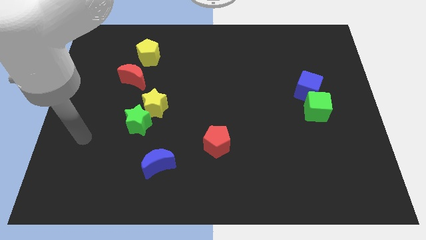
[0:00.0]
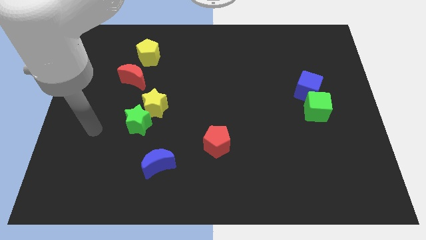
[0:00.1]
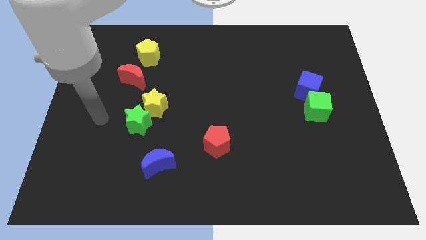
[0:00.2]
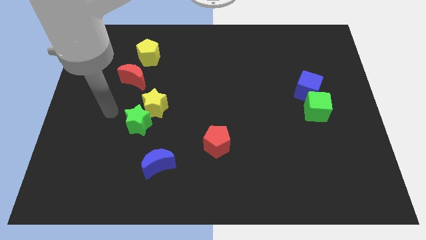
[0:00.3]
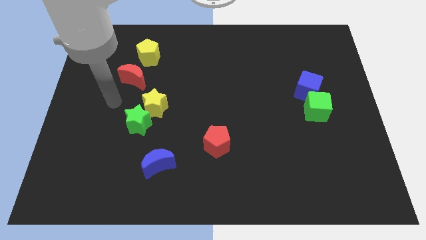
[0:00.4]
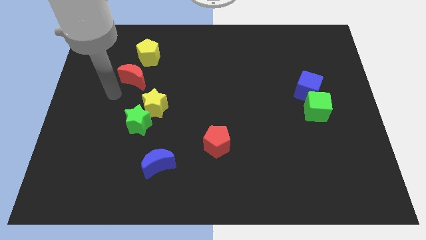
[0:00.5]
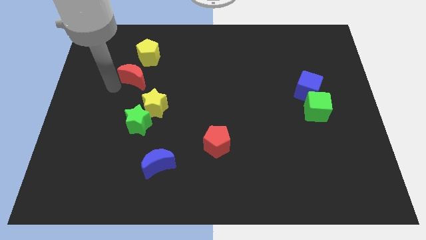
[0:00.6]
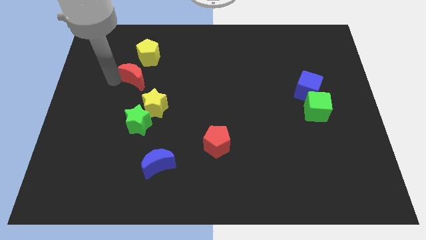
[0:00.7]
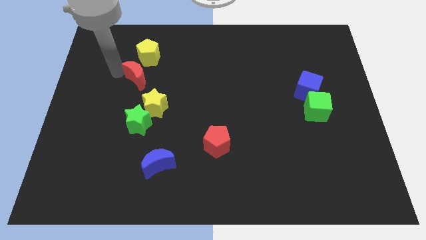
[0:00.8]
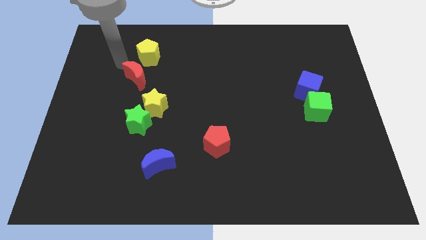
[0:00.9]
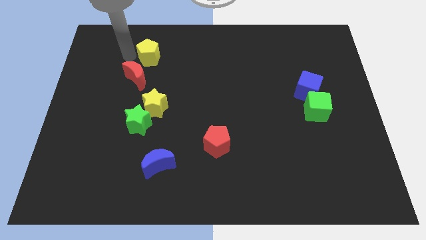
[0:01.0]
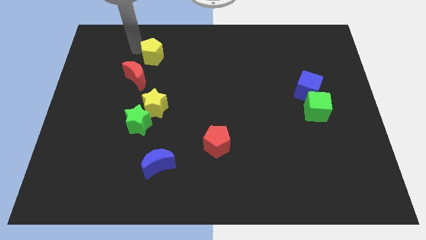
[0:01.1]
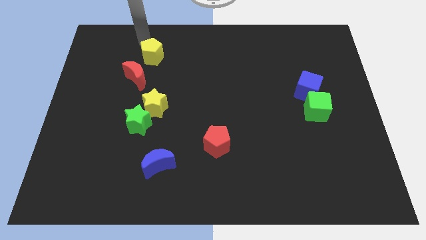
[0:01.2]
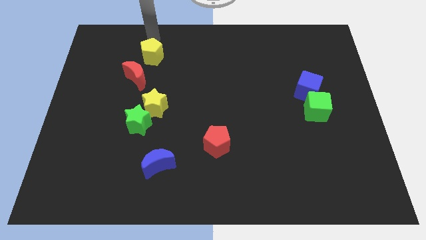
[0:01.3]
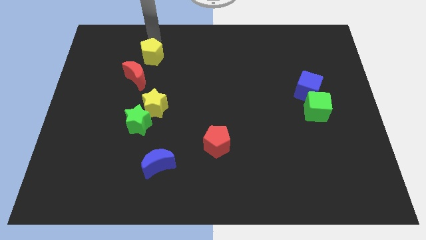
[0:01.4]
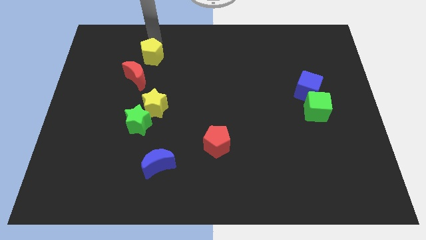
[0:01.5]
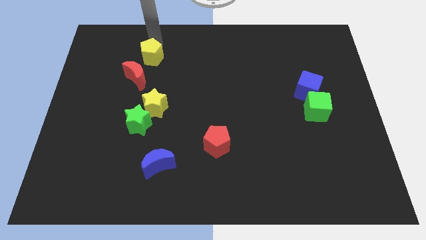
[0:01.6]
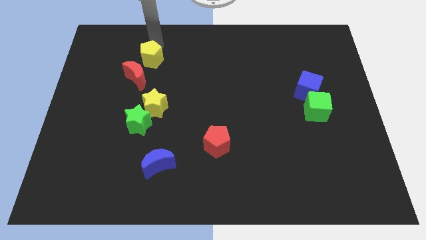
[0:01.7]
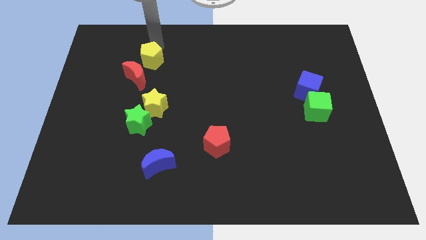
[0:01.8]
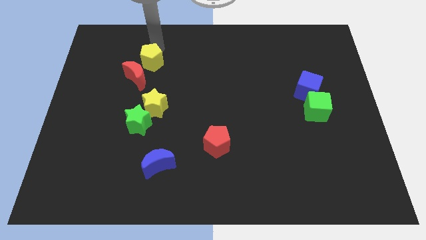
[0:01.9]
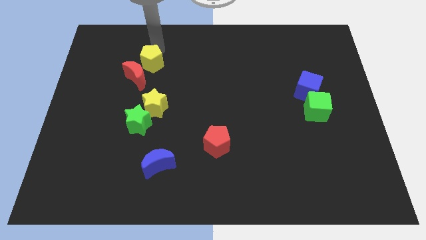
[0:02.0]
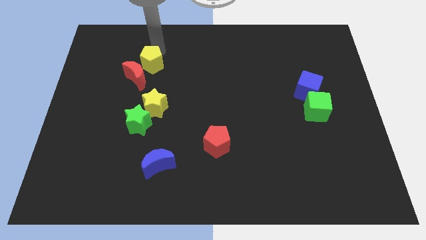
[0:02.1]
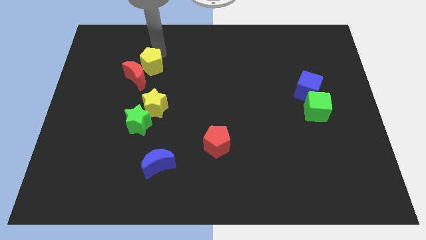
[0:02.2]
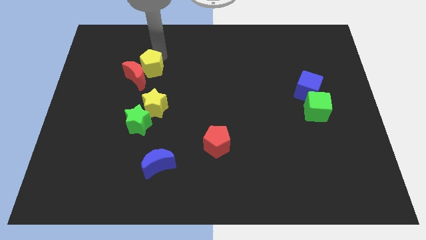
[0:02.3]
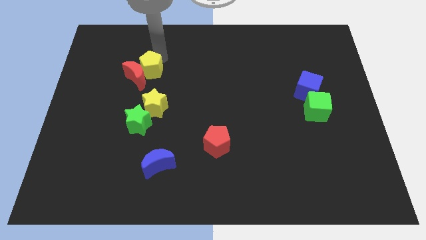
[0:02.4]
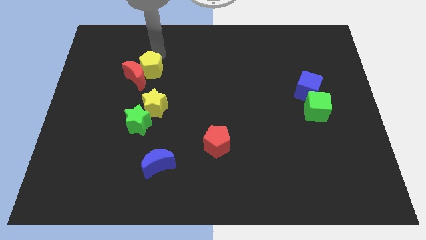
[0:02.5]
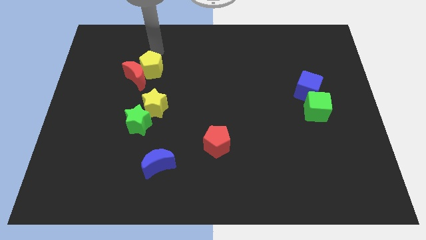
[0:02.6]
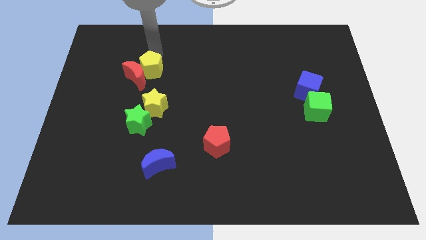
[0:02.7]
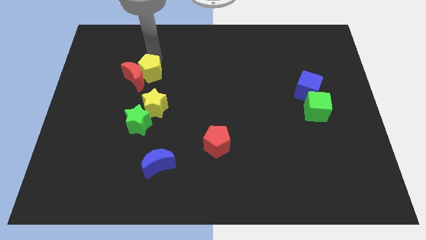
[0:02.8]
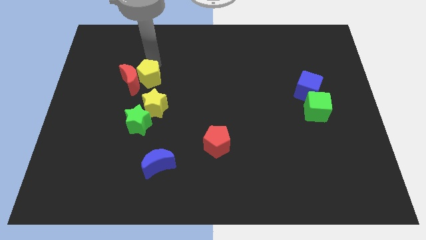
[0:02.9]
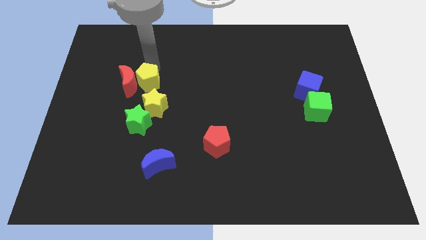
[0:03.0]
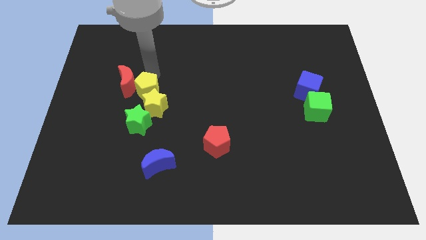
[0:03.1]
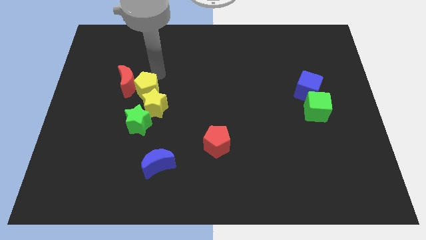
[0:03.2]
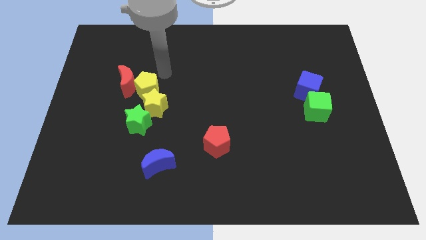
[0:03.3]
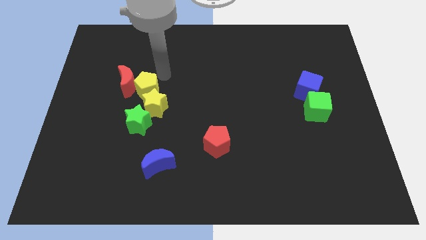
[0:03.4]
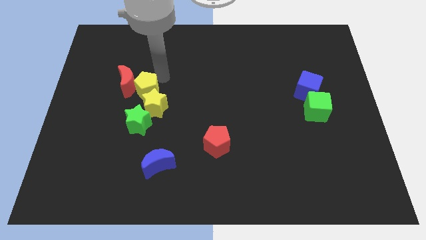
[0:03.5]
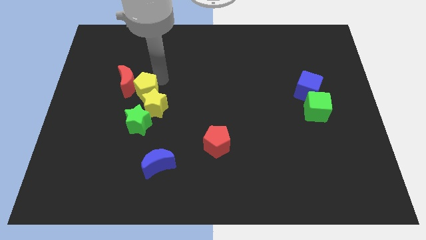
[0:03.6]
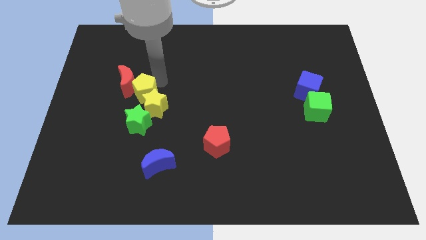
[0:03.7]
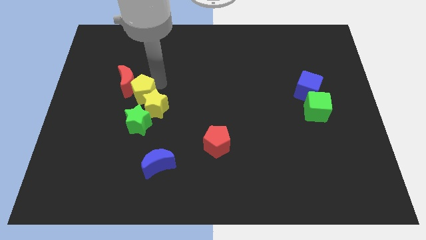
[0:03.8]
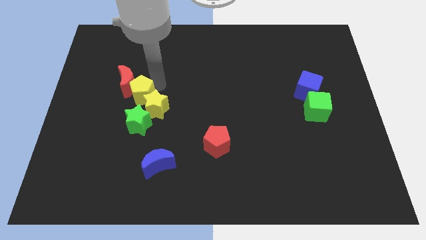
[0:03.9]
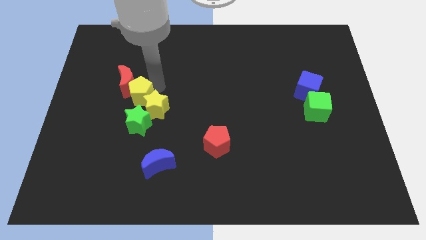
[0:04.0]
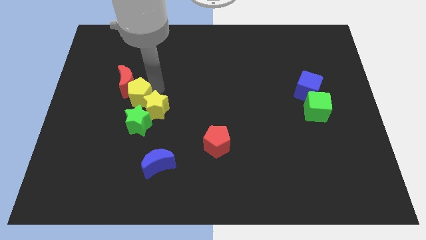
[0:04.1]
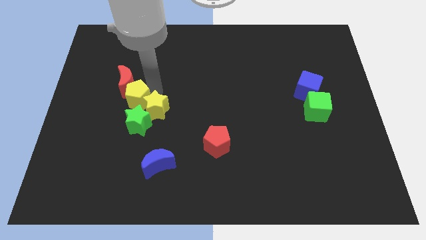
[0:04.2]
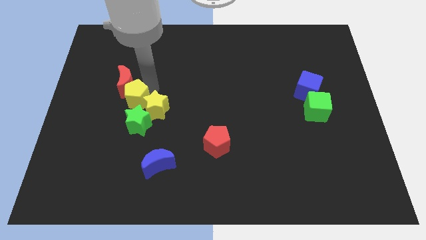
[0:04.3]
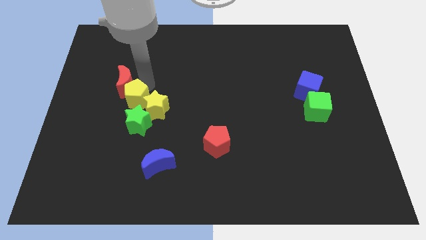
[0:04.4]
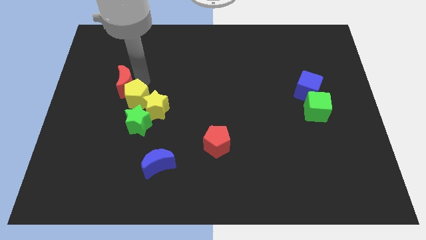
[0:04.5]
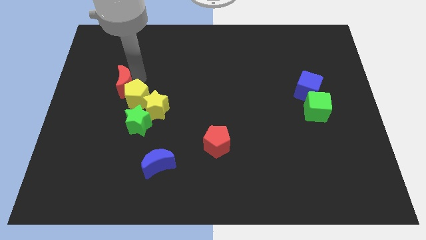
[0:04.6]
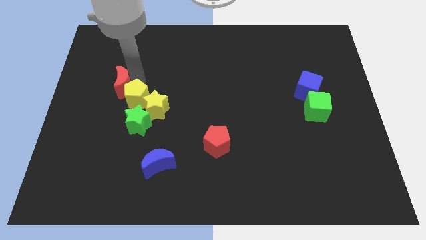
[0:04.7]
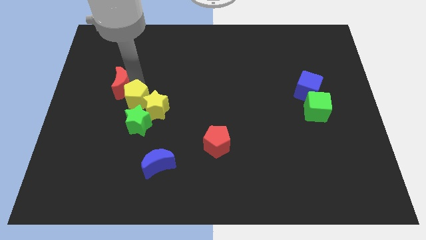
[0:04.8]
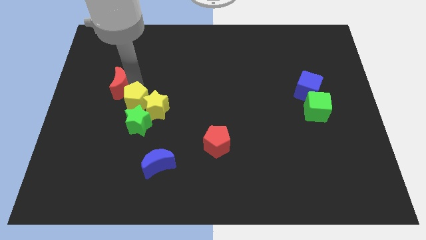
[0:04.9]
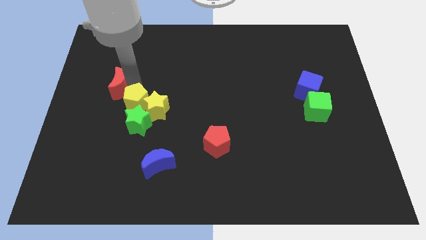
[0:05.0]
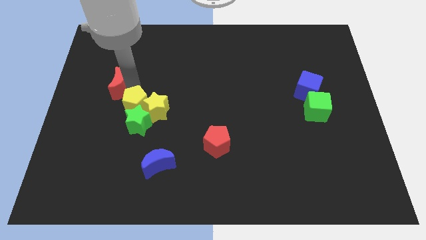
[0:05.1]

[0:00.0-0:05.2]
slide the yellow pentagon to the green star
